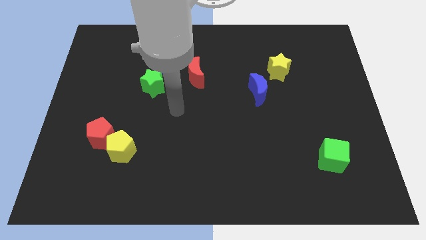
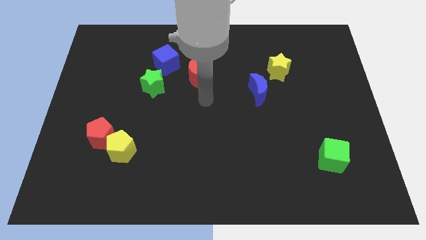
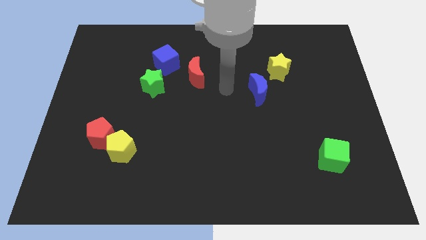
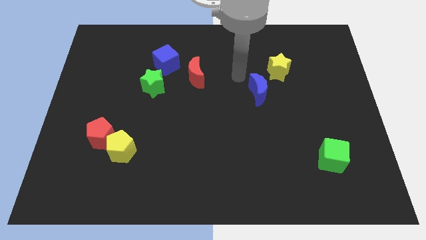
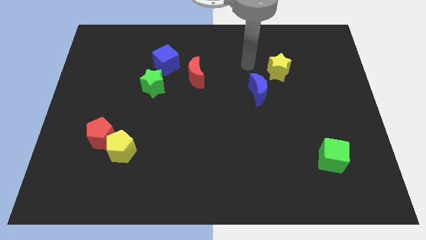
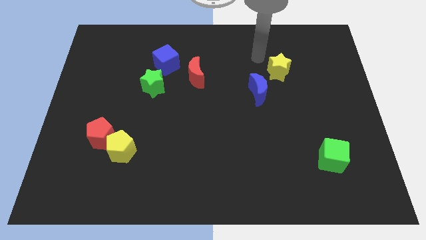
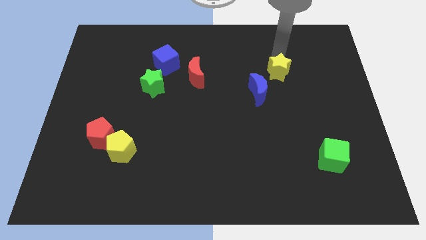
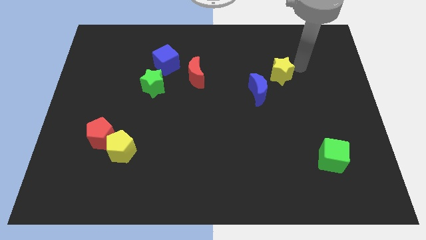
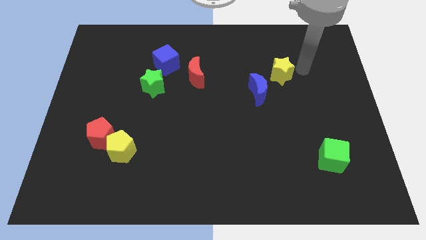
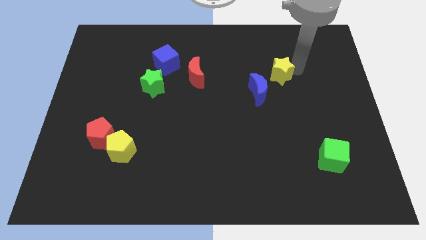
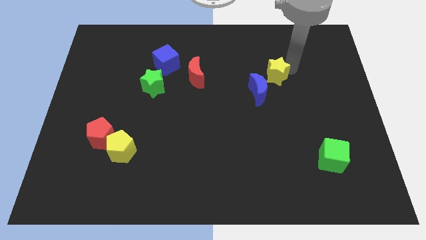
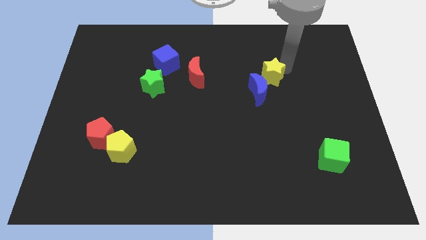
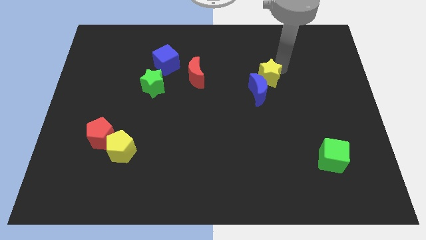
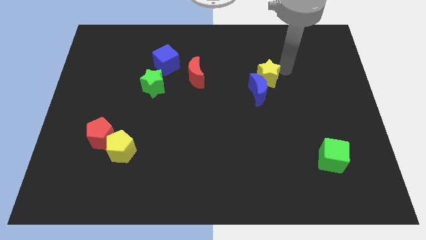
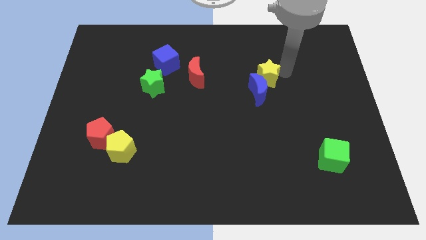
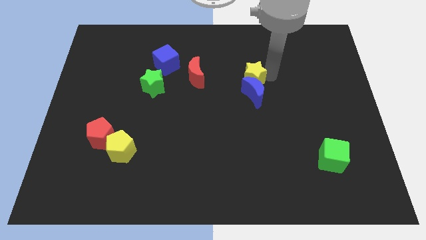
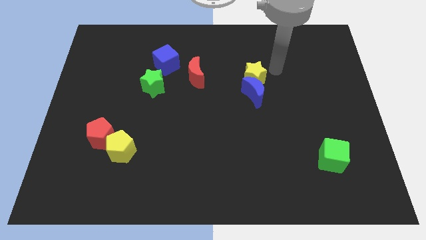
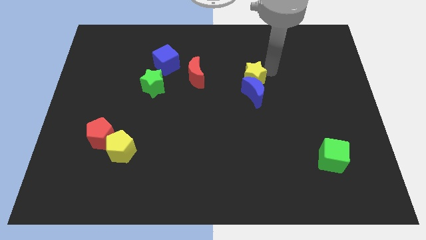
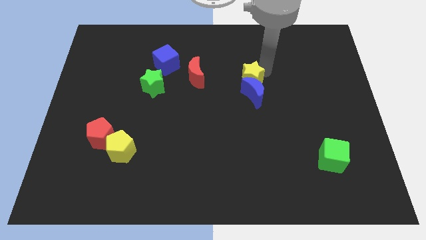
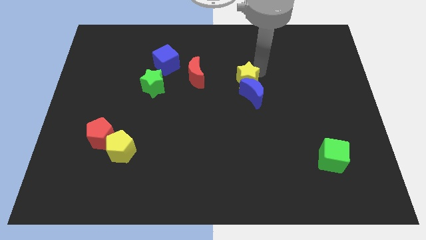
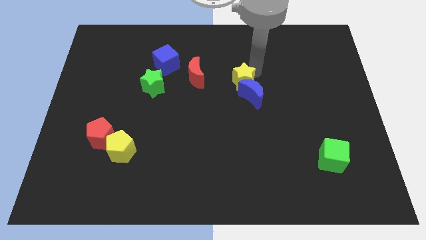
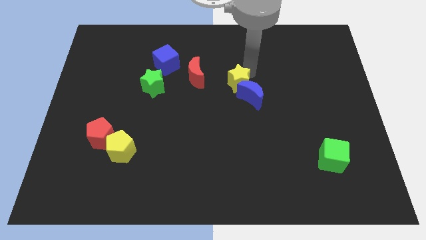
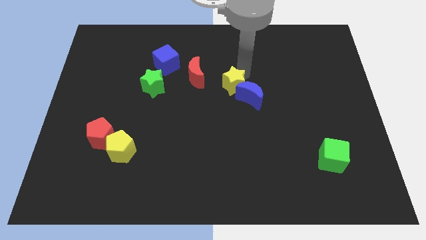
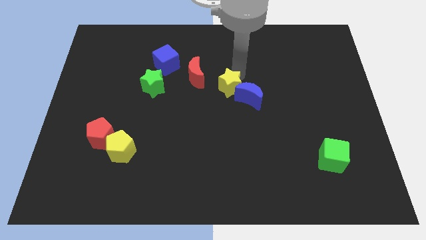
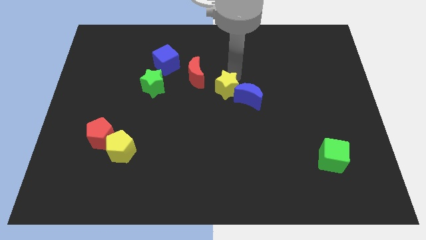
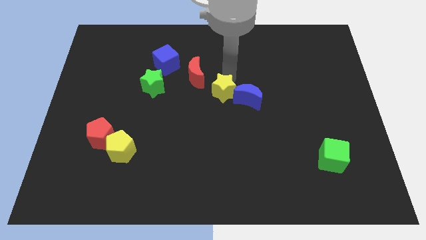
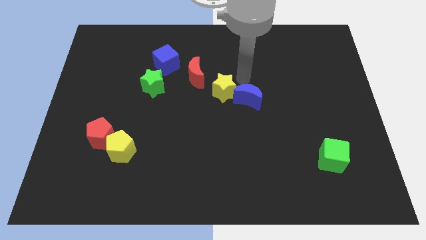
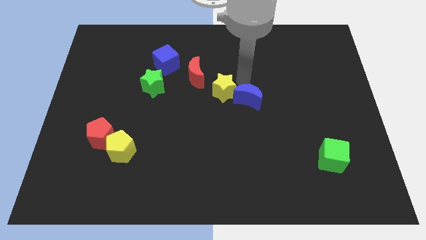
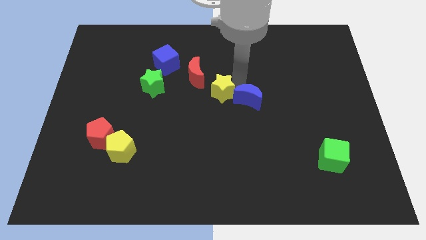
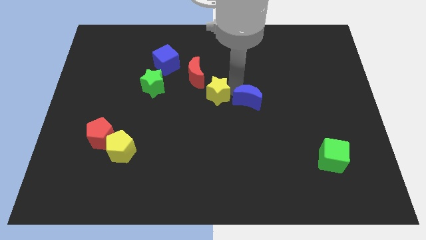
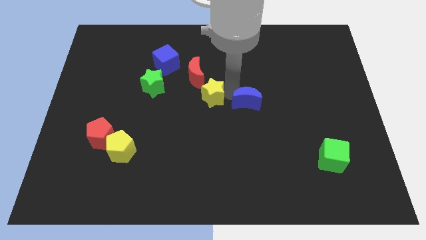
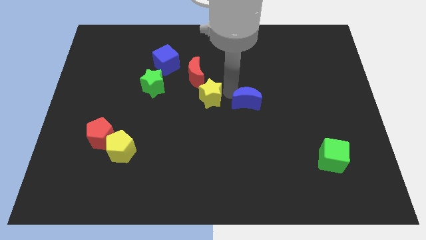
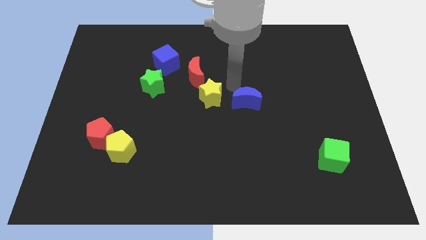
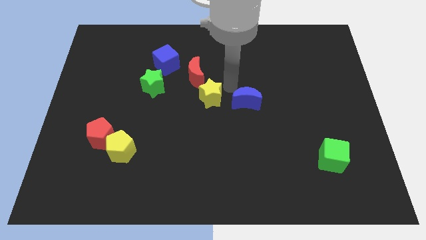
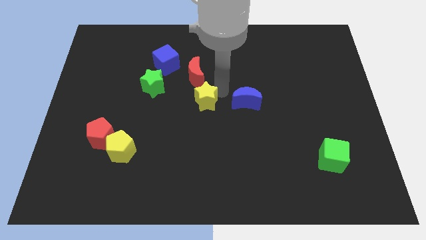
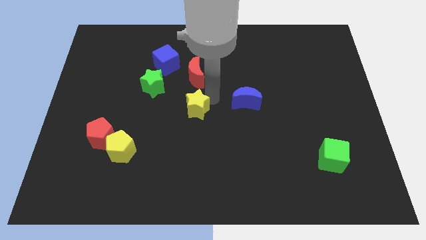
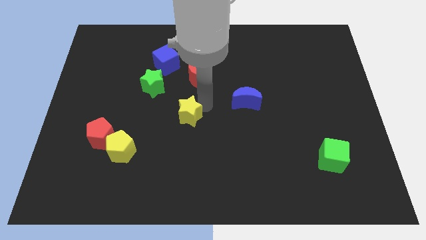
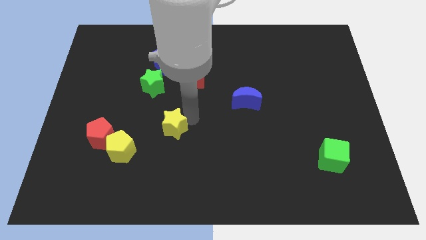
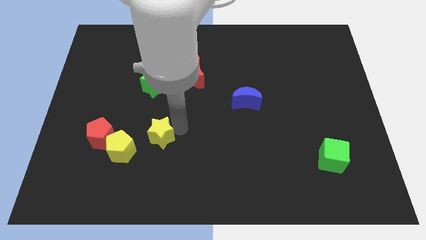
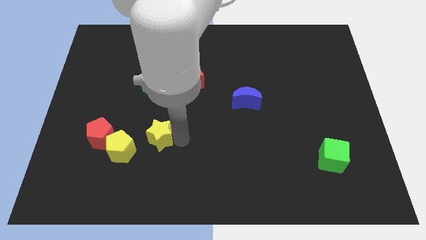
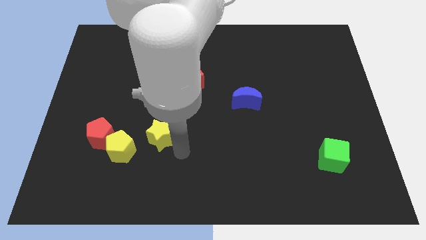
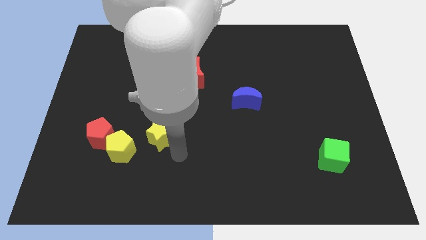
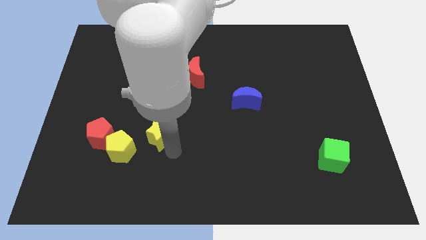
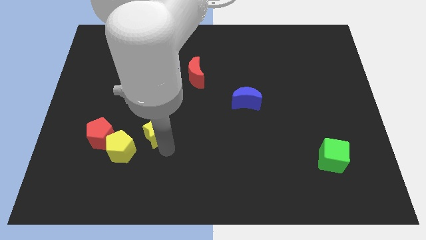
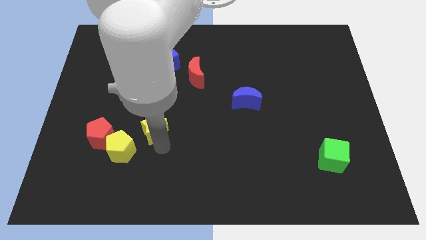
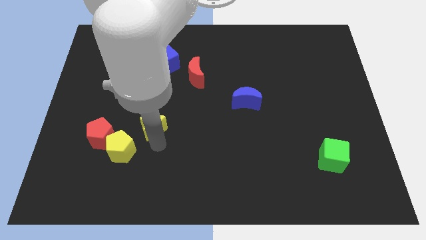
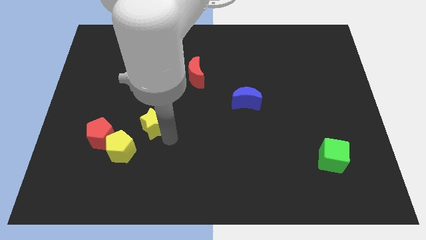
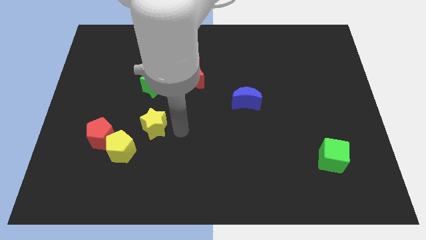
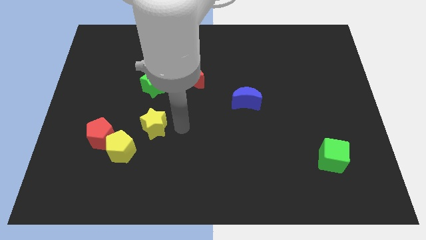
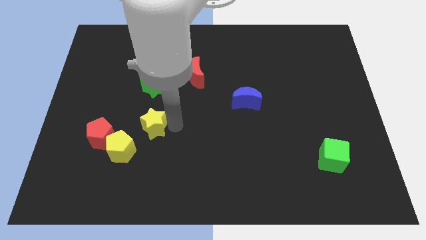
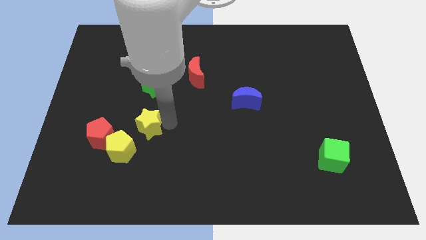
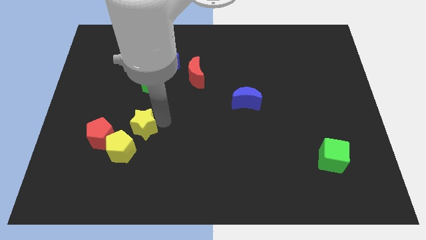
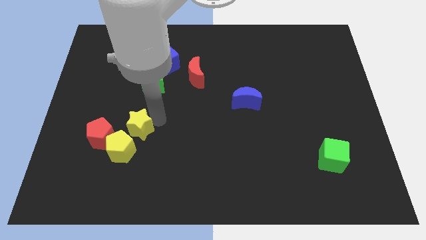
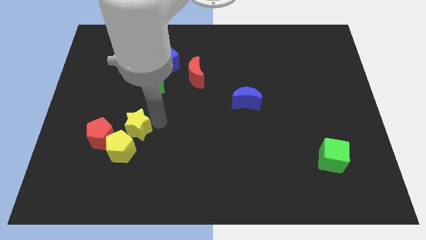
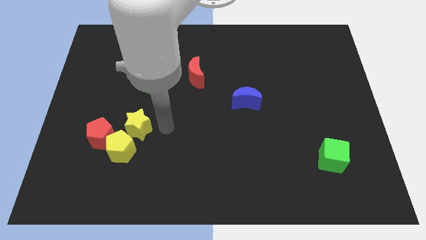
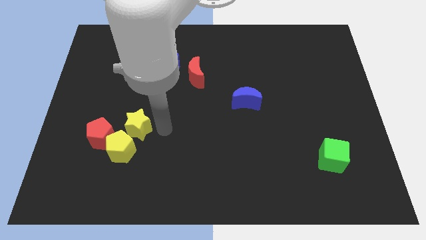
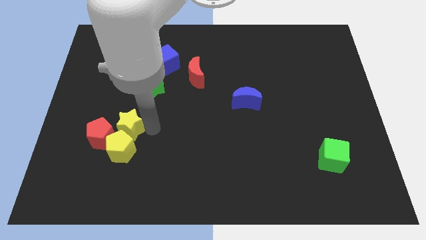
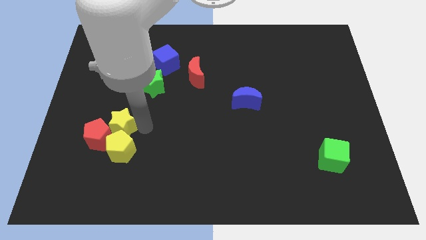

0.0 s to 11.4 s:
put the yellow star next to the red pentagon

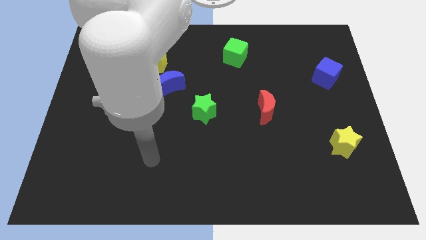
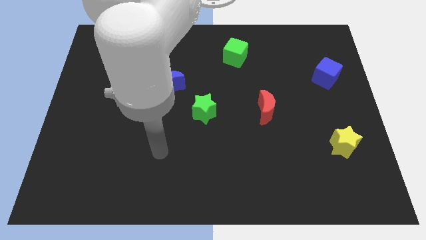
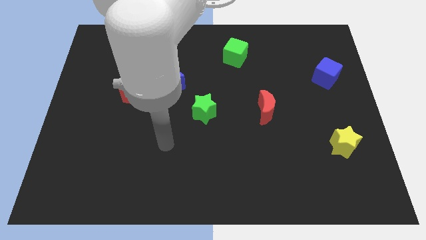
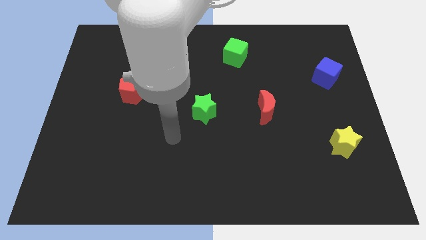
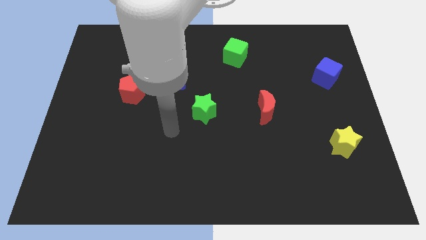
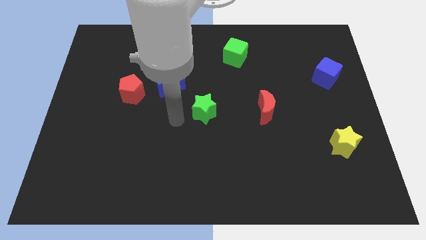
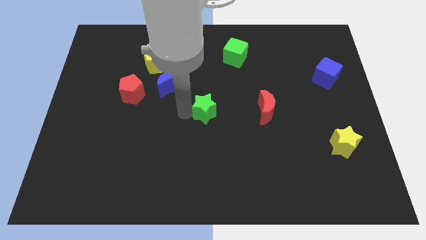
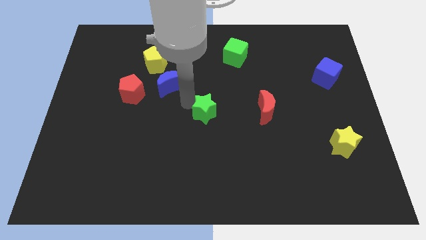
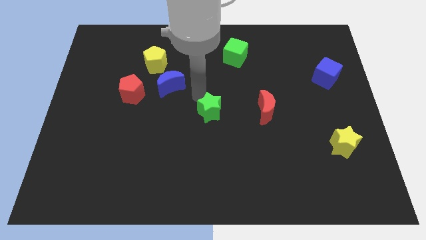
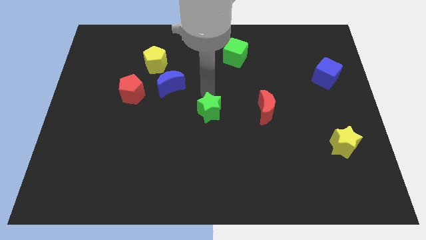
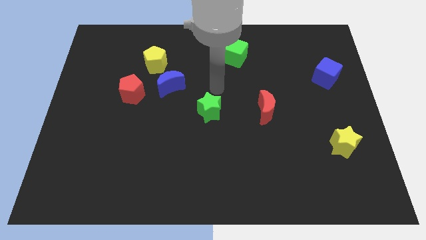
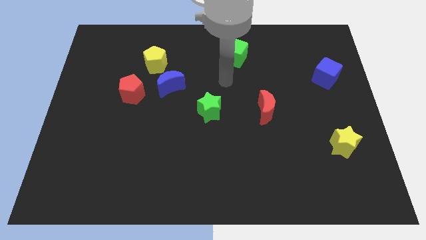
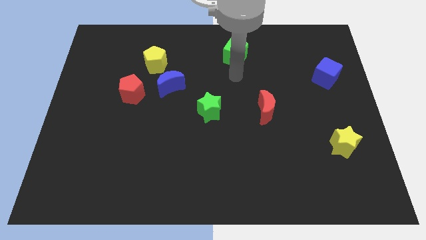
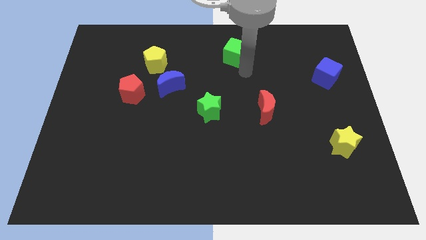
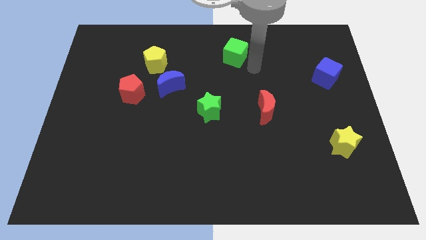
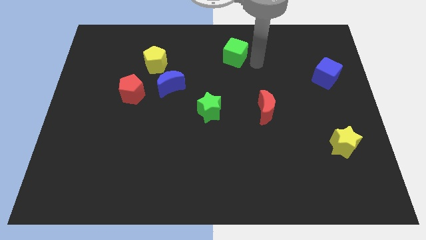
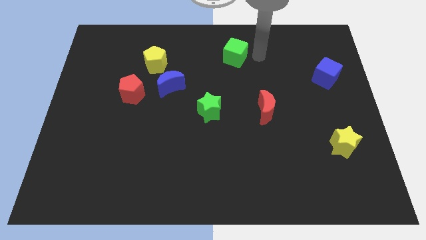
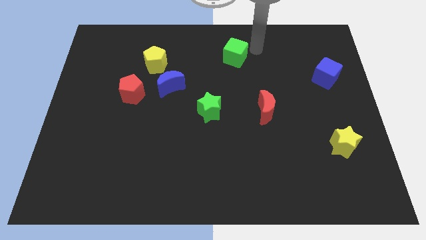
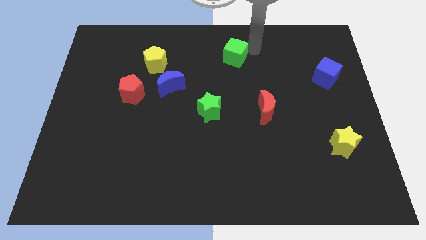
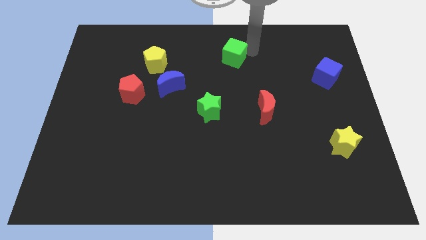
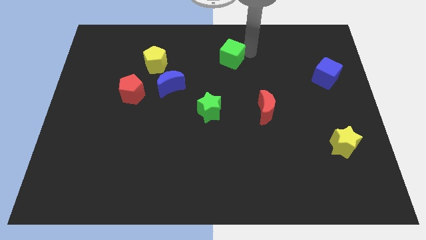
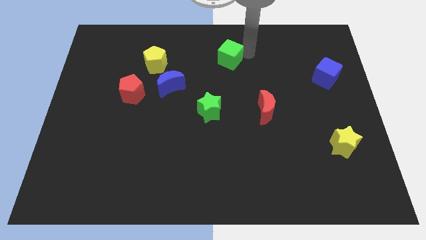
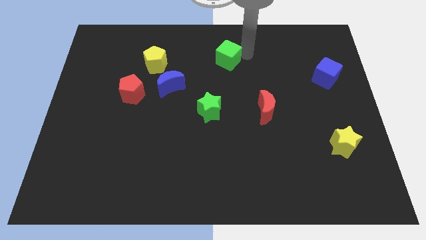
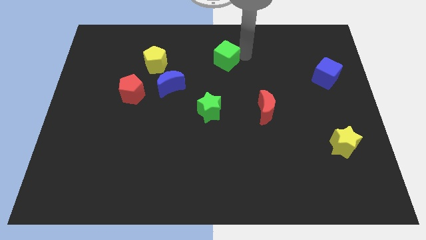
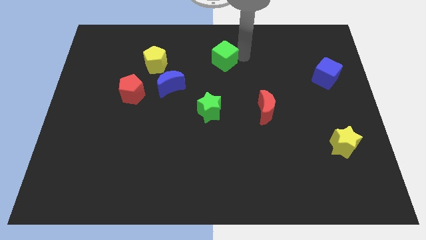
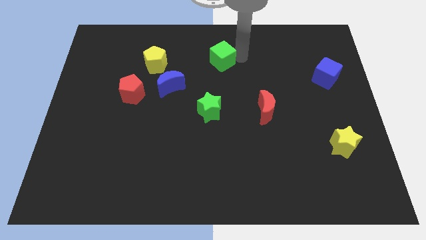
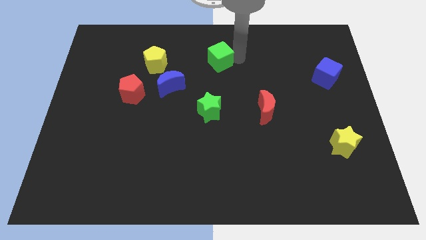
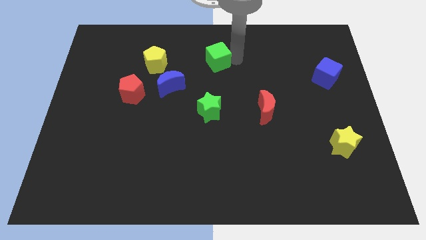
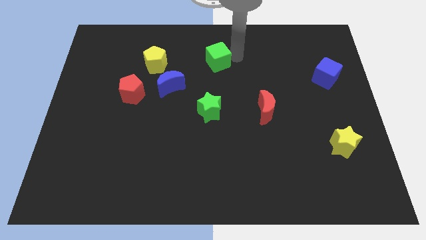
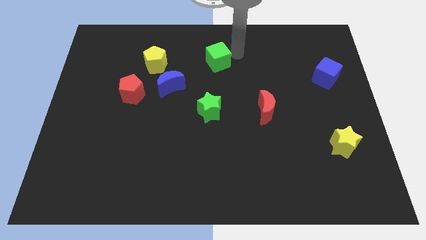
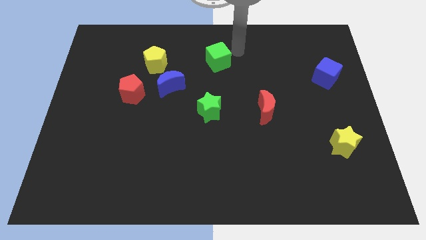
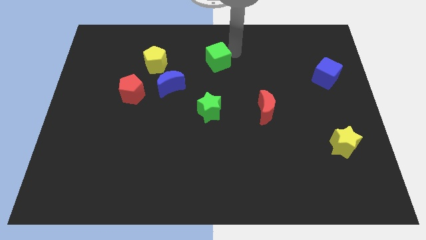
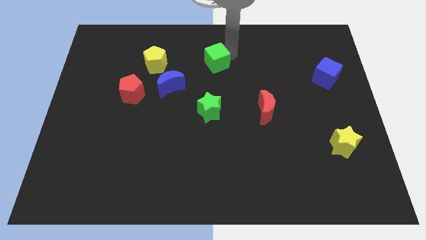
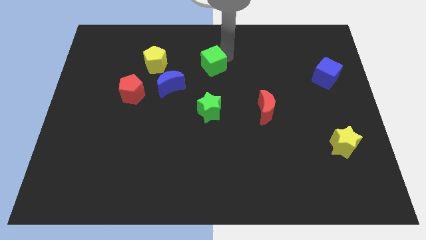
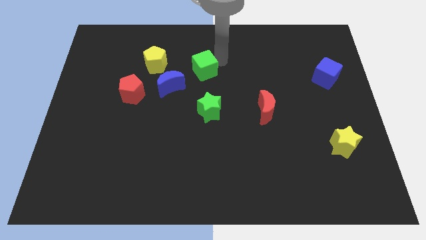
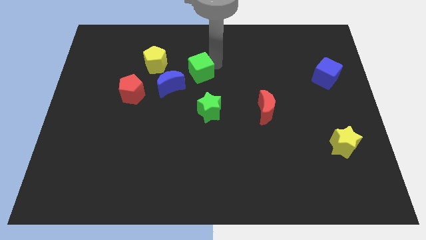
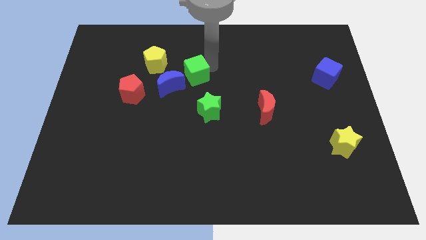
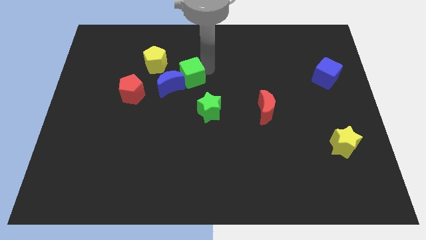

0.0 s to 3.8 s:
push the green cube towards the blue moon
